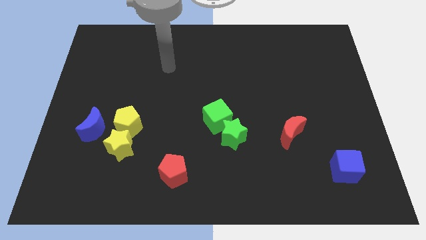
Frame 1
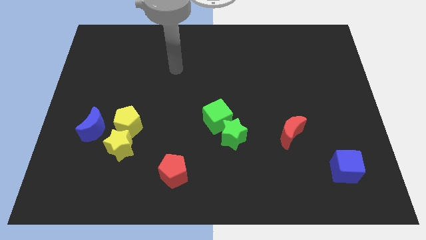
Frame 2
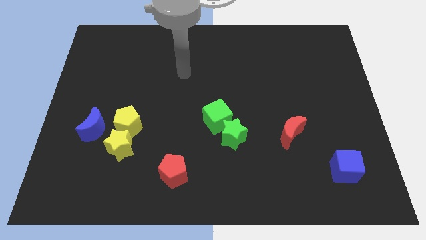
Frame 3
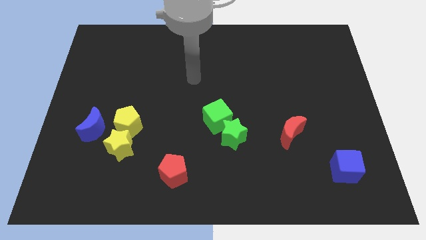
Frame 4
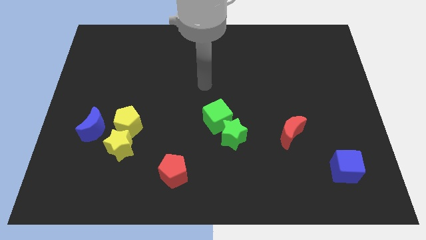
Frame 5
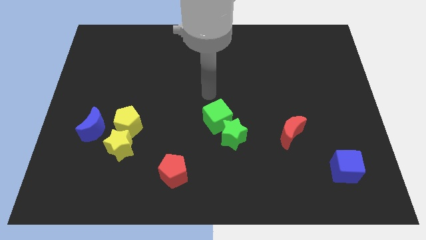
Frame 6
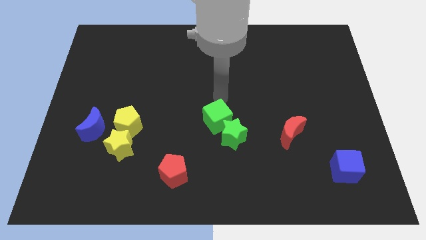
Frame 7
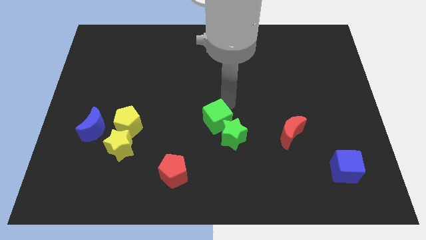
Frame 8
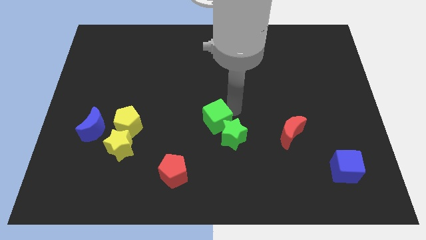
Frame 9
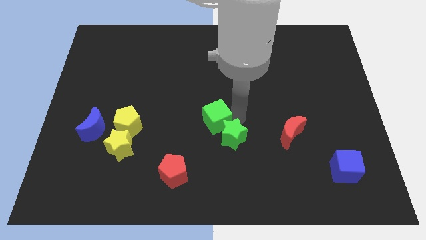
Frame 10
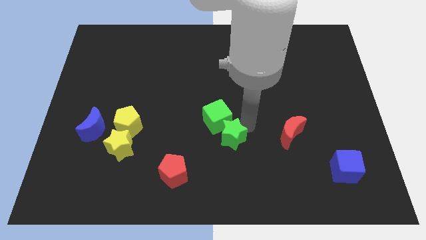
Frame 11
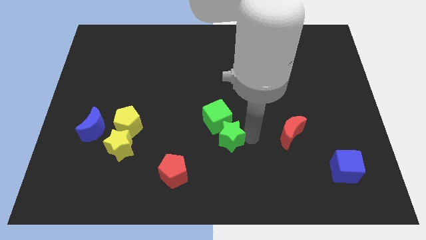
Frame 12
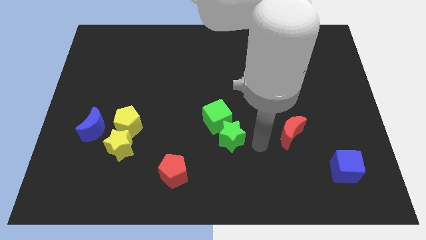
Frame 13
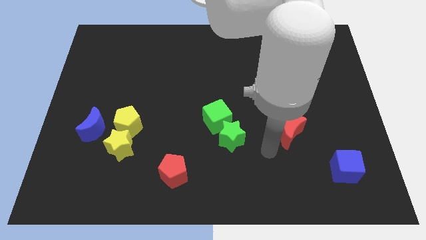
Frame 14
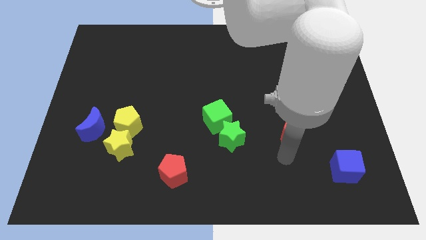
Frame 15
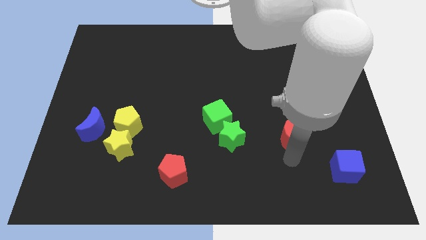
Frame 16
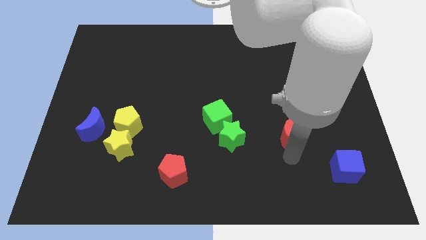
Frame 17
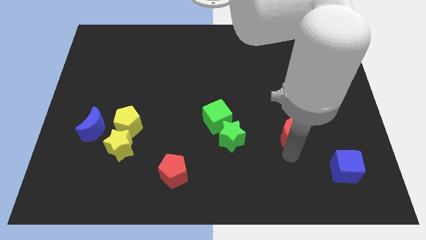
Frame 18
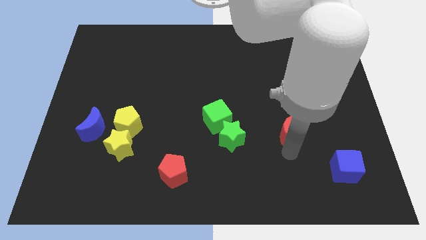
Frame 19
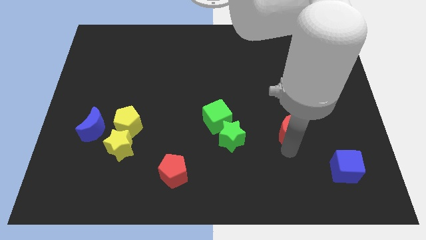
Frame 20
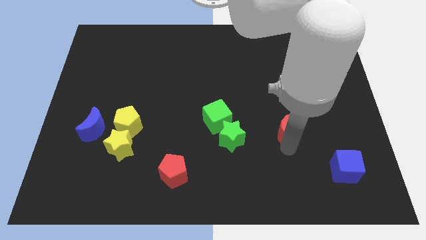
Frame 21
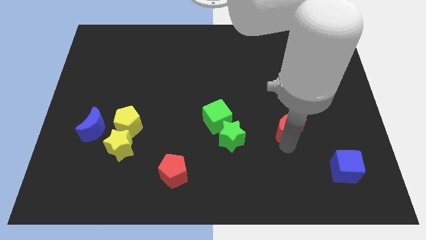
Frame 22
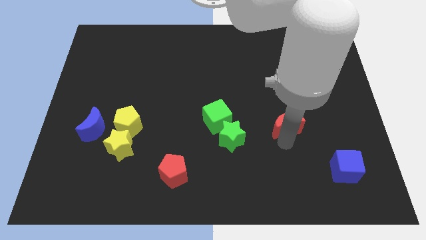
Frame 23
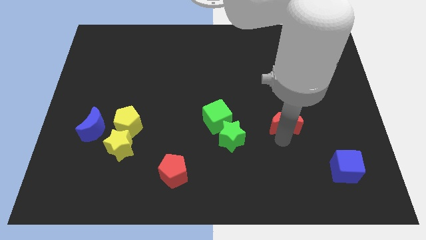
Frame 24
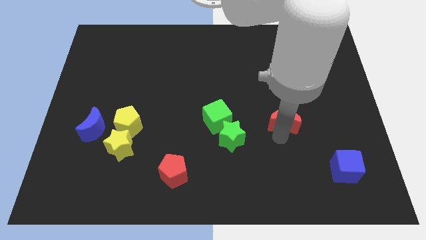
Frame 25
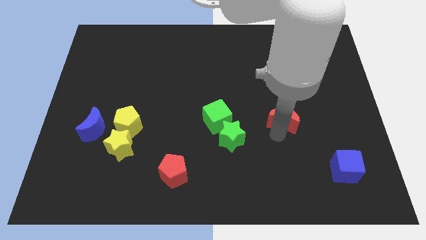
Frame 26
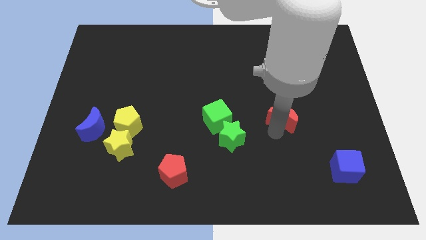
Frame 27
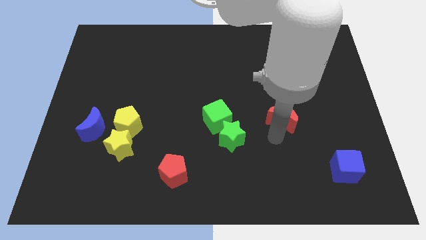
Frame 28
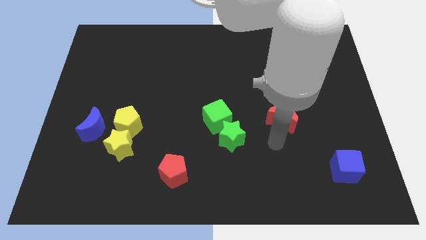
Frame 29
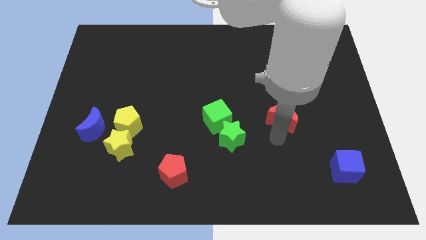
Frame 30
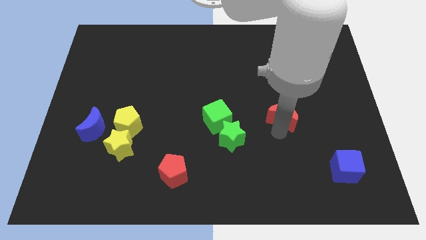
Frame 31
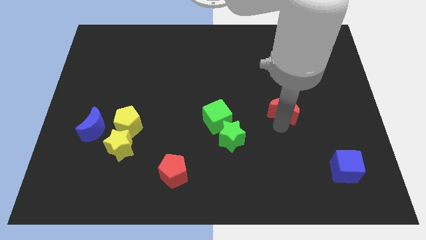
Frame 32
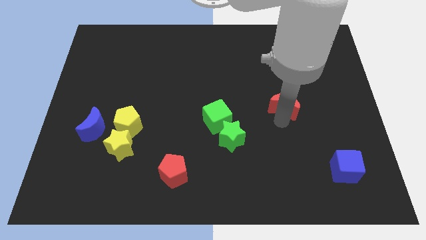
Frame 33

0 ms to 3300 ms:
push the red moon a little bit upwards

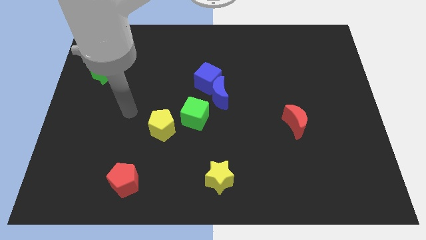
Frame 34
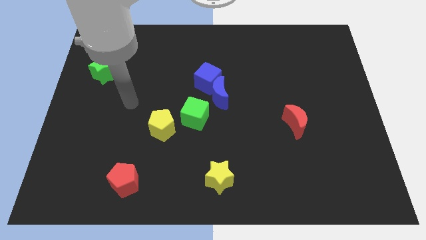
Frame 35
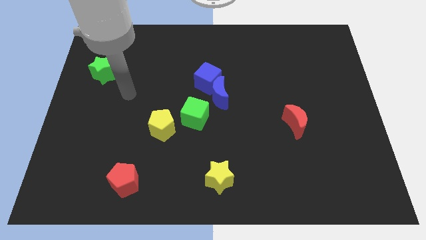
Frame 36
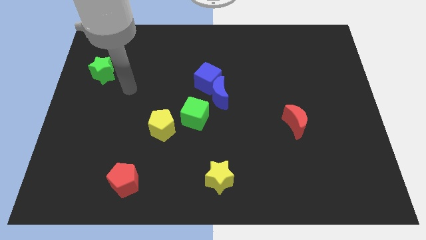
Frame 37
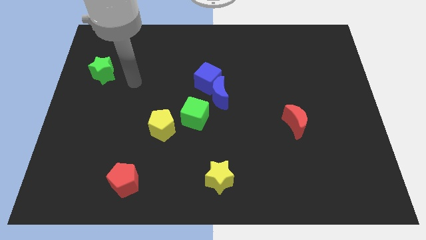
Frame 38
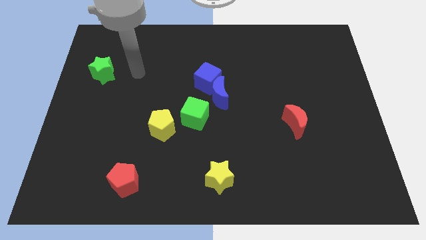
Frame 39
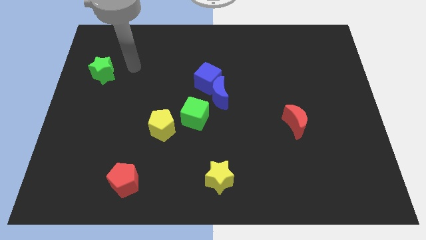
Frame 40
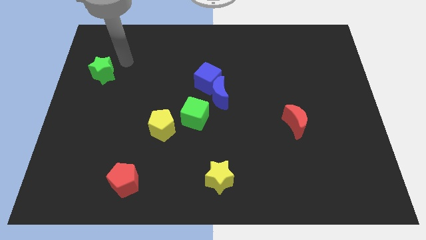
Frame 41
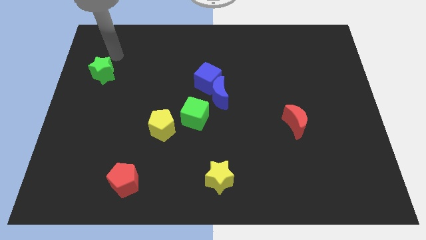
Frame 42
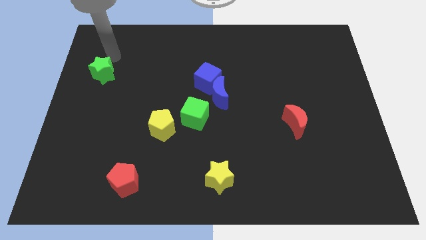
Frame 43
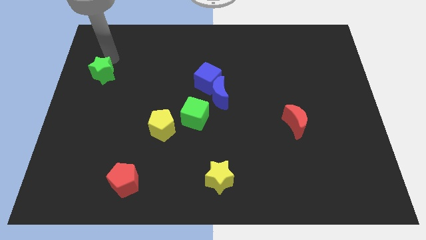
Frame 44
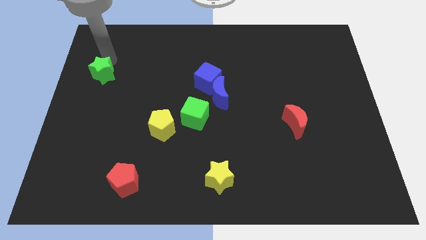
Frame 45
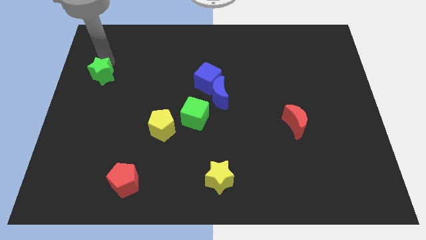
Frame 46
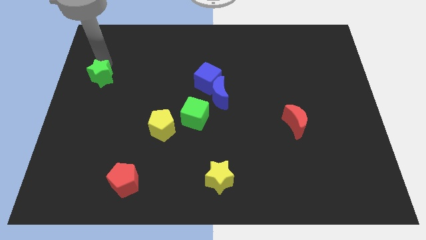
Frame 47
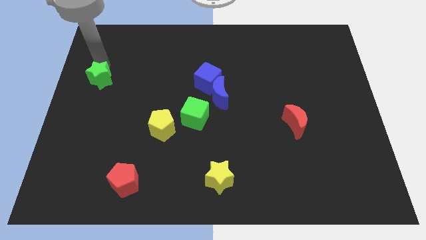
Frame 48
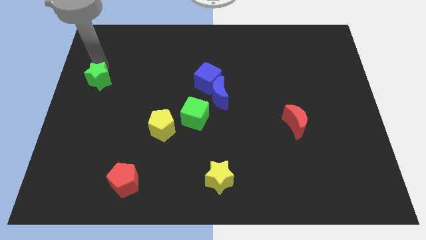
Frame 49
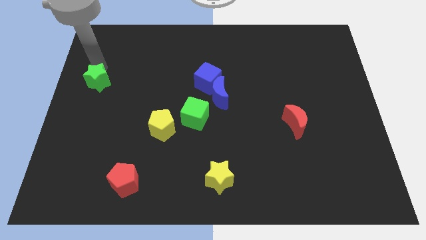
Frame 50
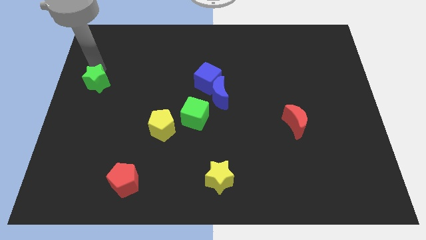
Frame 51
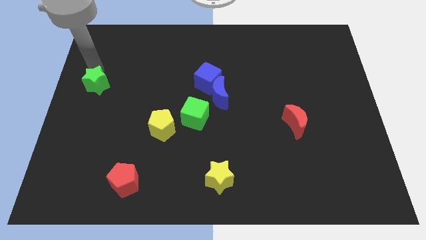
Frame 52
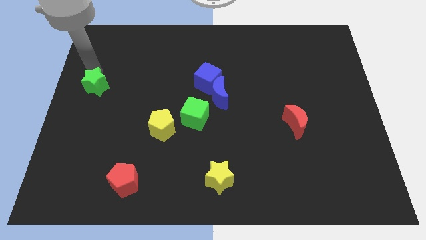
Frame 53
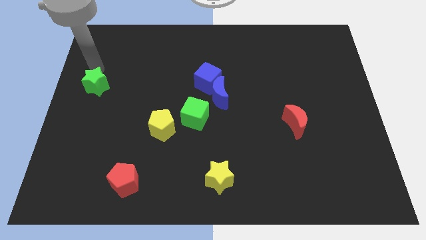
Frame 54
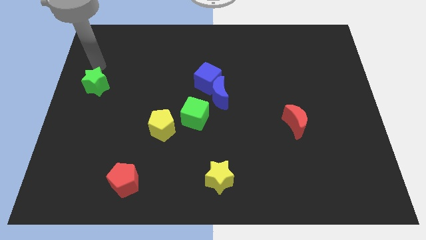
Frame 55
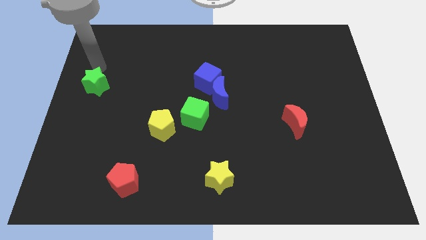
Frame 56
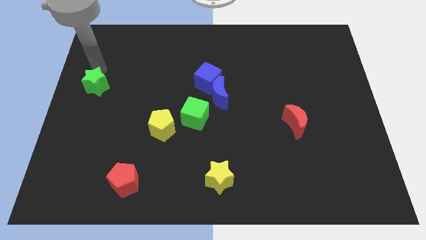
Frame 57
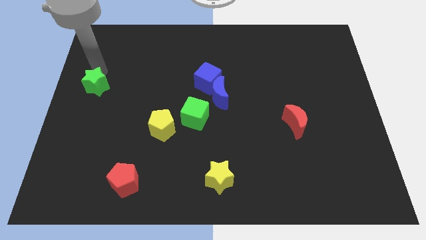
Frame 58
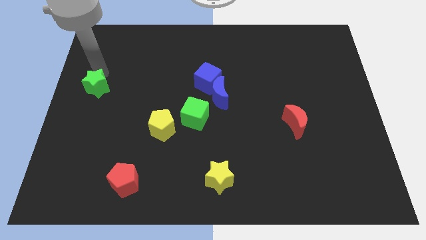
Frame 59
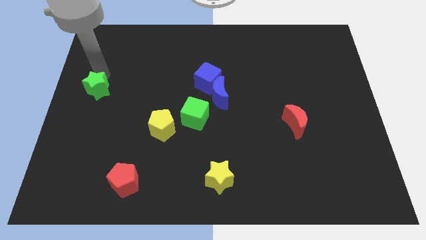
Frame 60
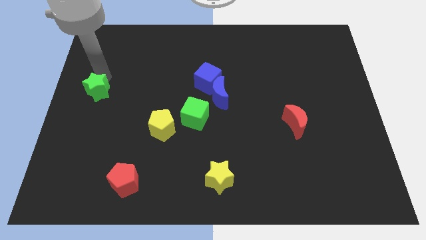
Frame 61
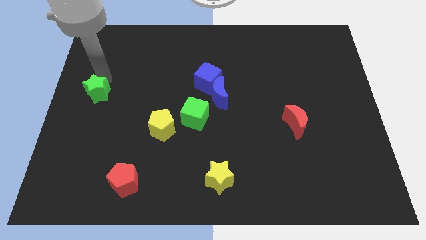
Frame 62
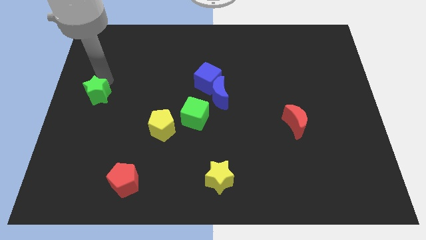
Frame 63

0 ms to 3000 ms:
move the green star somewhat down

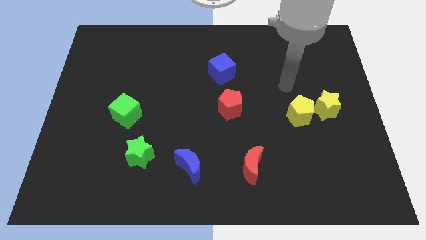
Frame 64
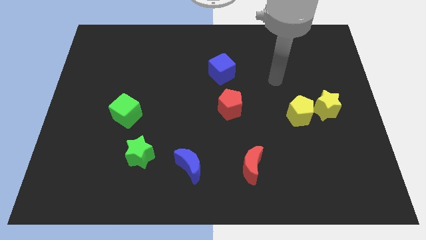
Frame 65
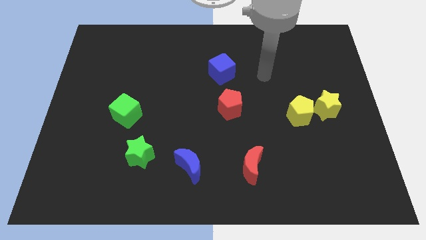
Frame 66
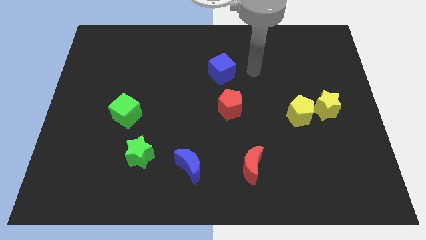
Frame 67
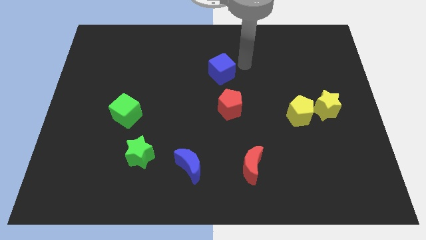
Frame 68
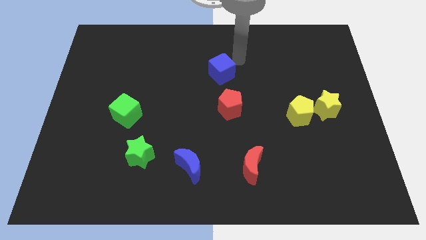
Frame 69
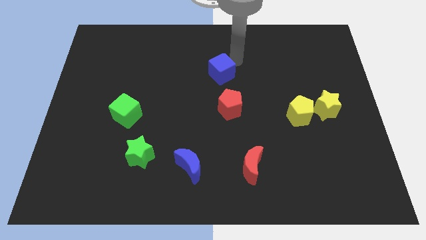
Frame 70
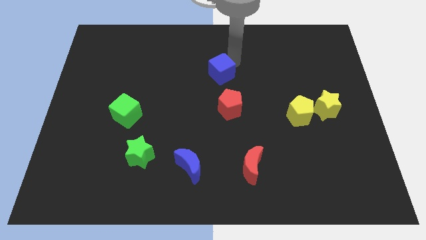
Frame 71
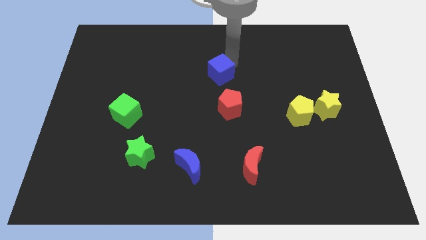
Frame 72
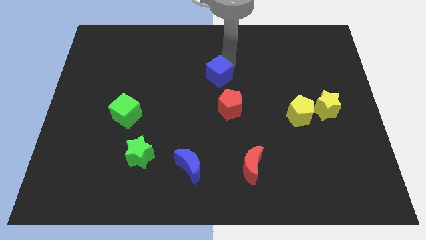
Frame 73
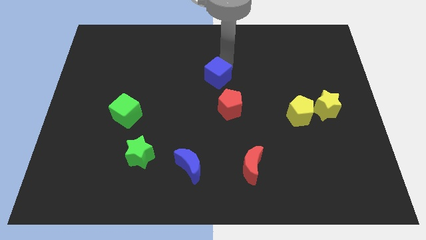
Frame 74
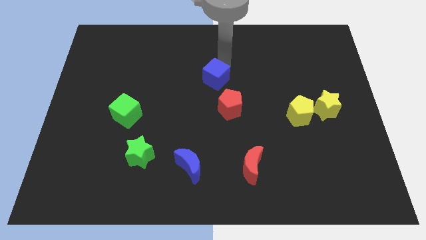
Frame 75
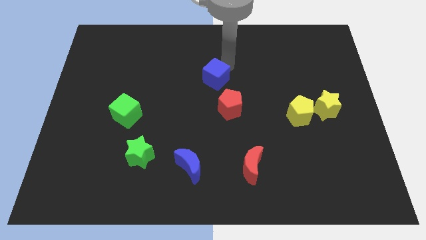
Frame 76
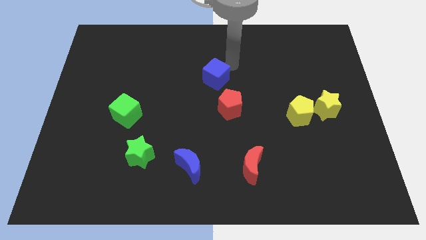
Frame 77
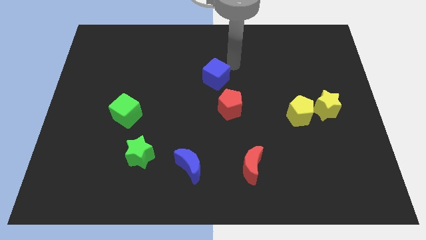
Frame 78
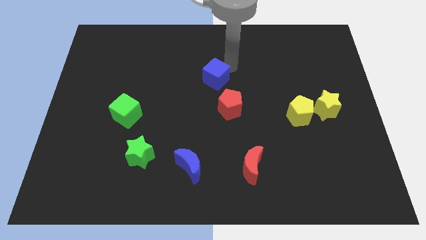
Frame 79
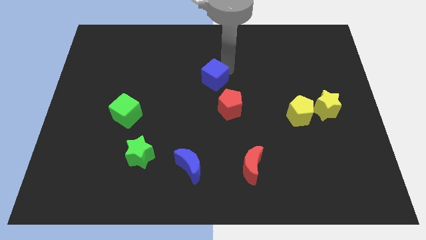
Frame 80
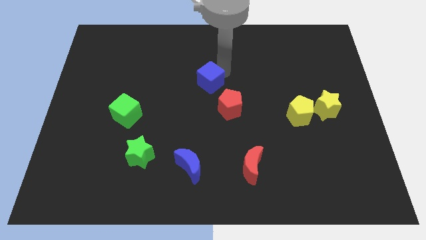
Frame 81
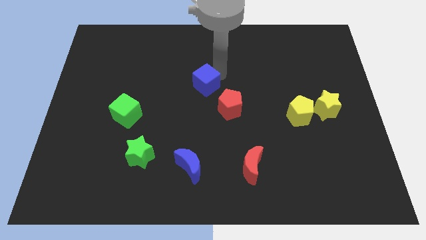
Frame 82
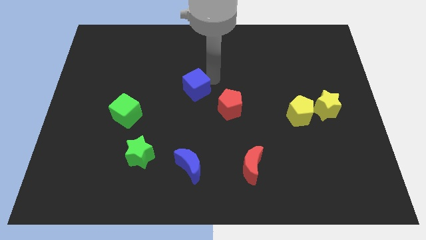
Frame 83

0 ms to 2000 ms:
slightly move the blue cube downwards and left diagonally
